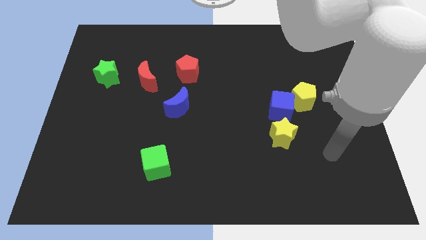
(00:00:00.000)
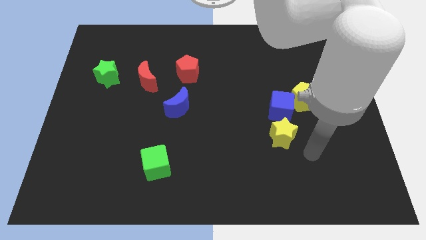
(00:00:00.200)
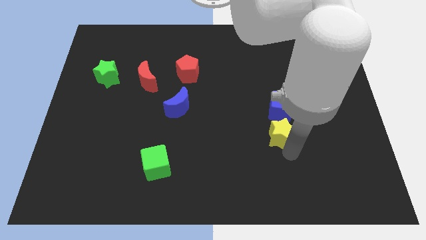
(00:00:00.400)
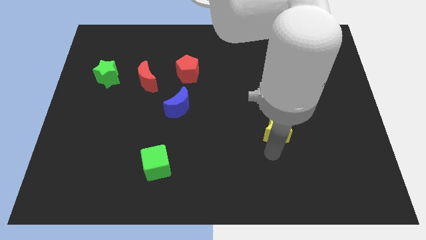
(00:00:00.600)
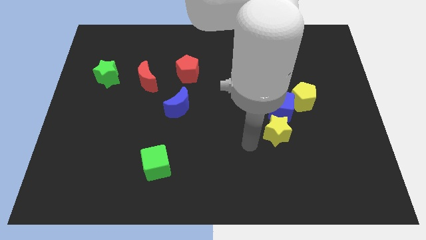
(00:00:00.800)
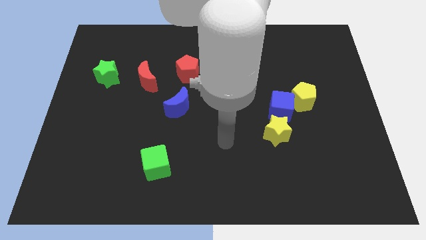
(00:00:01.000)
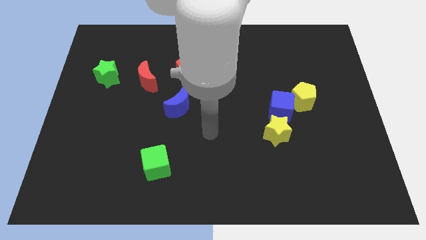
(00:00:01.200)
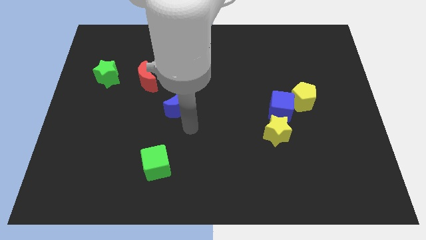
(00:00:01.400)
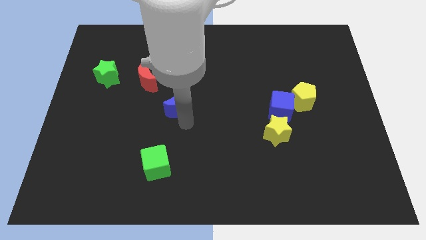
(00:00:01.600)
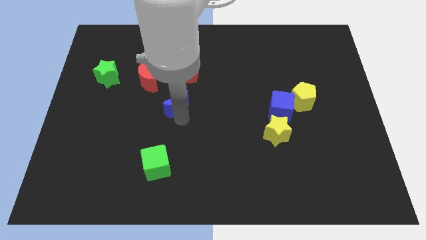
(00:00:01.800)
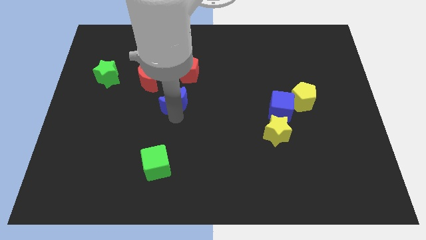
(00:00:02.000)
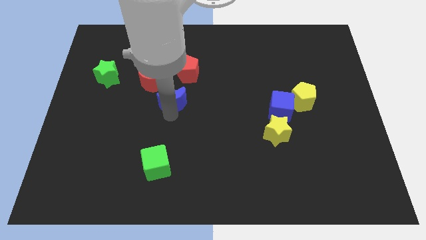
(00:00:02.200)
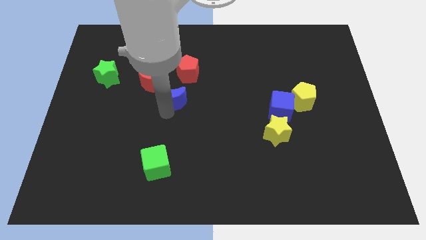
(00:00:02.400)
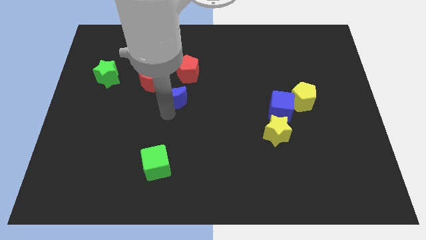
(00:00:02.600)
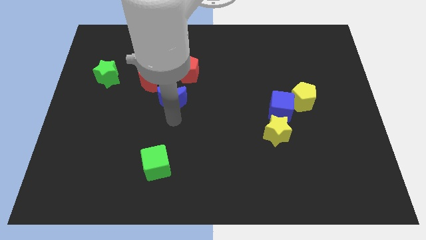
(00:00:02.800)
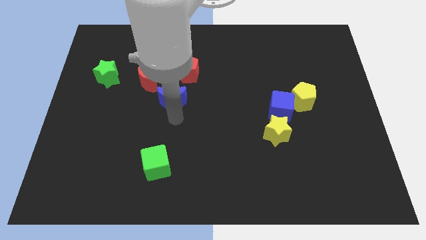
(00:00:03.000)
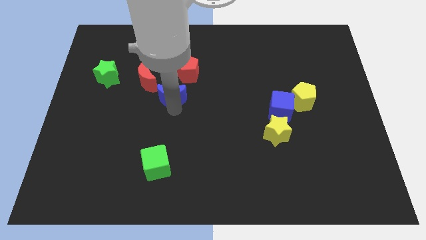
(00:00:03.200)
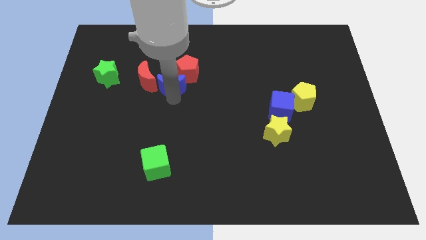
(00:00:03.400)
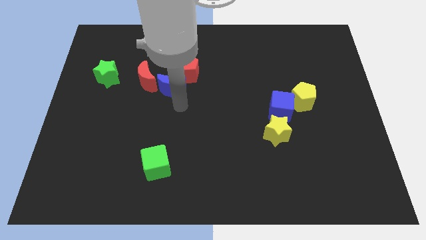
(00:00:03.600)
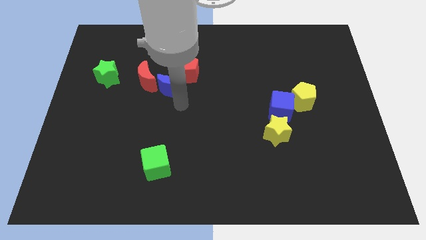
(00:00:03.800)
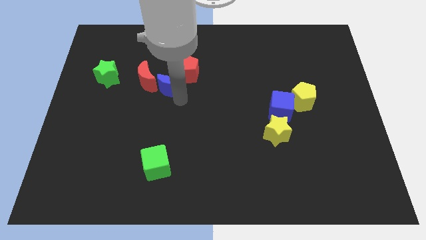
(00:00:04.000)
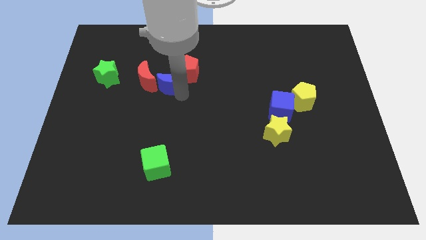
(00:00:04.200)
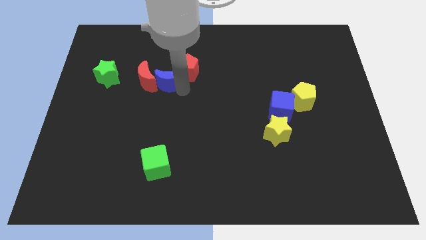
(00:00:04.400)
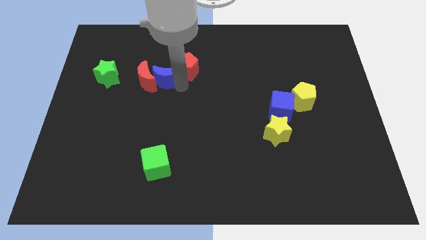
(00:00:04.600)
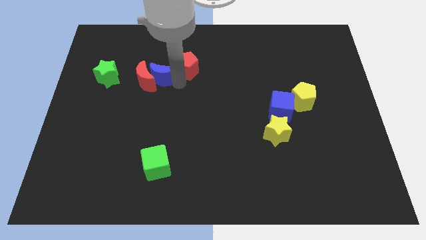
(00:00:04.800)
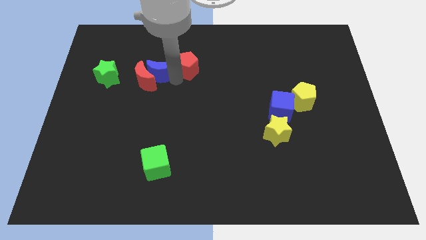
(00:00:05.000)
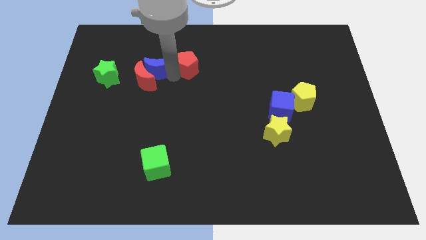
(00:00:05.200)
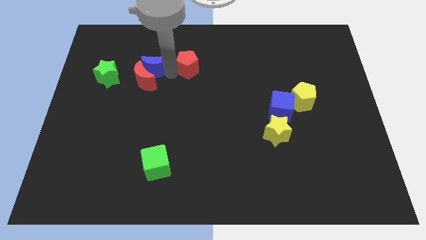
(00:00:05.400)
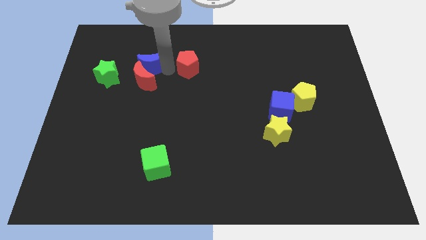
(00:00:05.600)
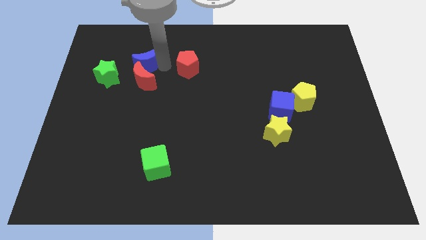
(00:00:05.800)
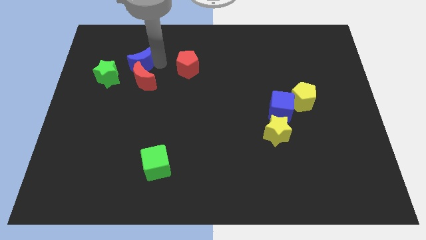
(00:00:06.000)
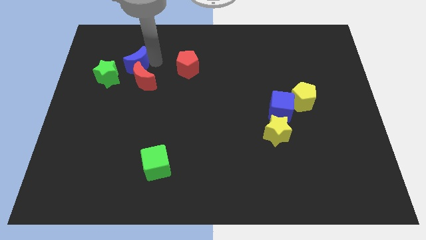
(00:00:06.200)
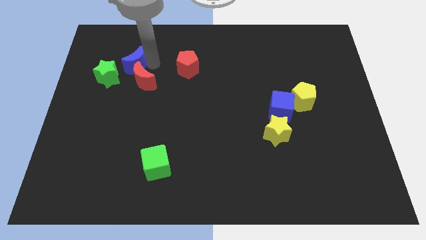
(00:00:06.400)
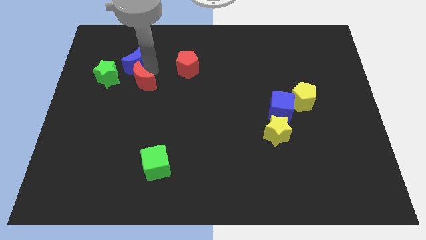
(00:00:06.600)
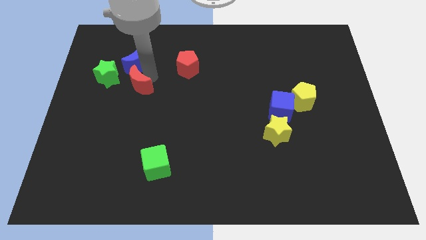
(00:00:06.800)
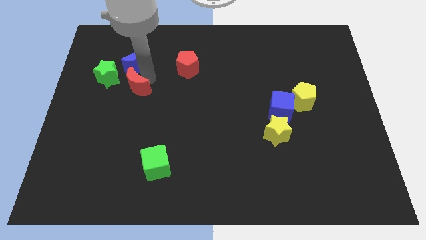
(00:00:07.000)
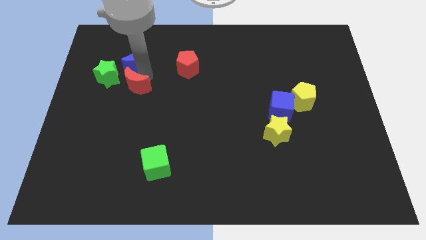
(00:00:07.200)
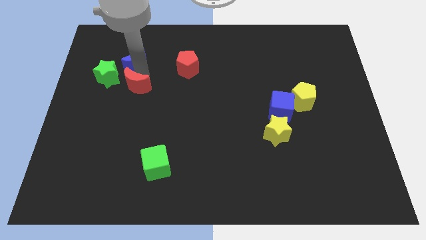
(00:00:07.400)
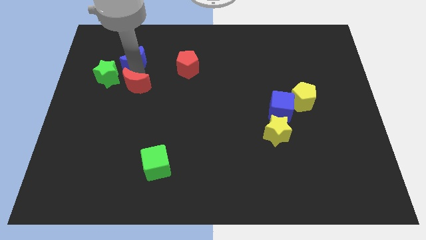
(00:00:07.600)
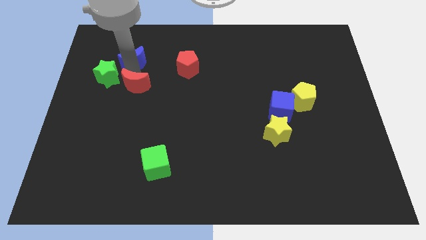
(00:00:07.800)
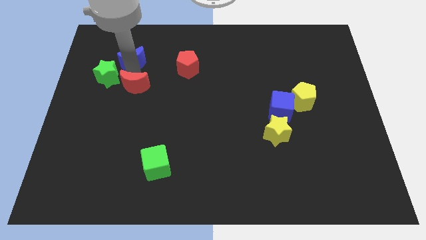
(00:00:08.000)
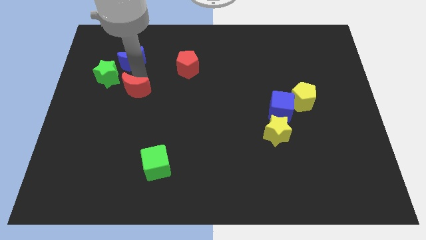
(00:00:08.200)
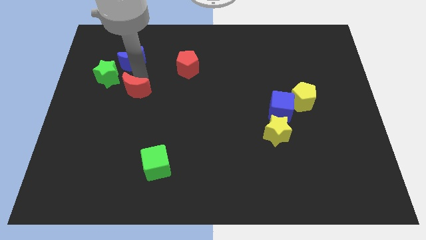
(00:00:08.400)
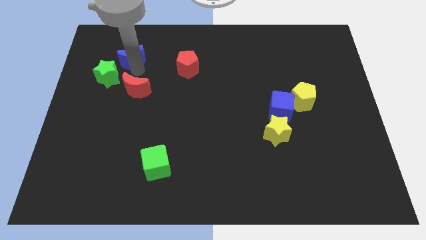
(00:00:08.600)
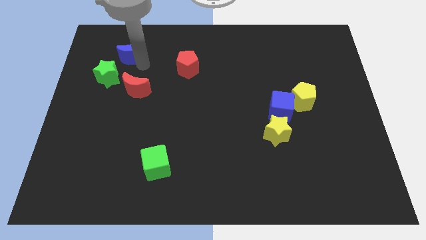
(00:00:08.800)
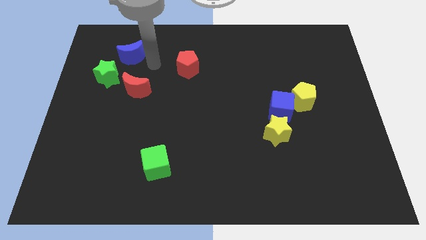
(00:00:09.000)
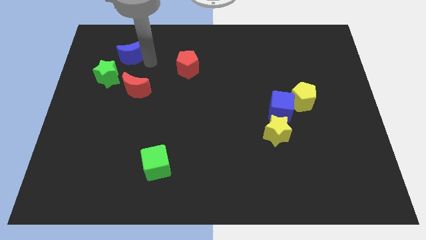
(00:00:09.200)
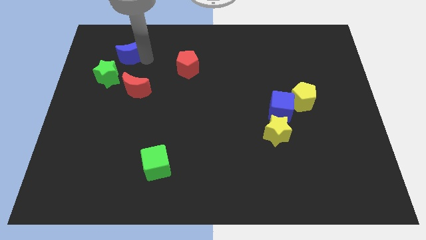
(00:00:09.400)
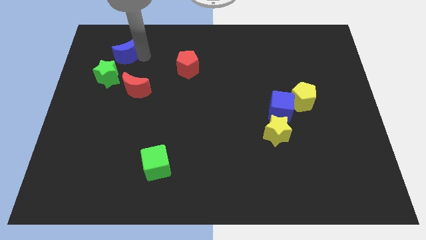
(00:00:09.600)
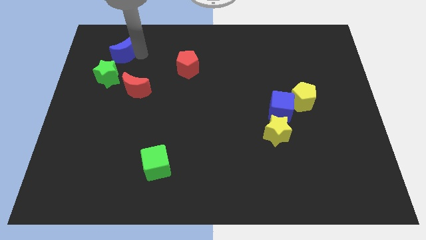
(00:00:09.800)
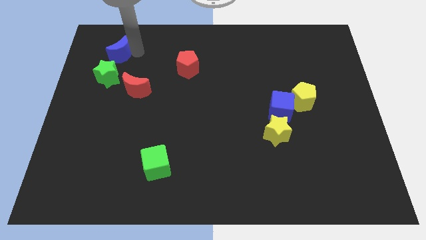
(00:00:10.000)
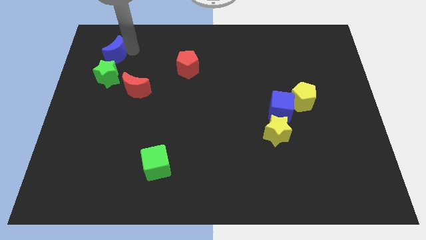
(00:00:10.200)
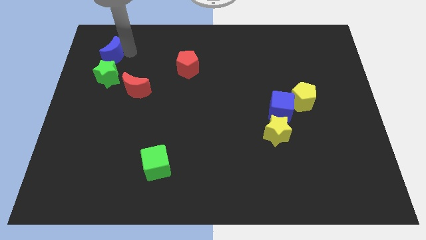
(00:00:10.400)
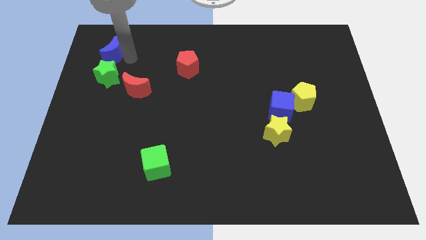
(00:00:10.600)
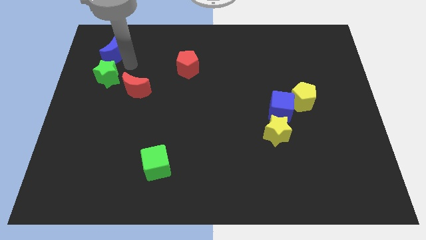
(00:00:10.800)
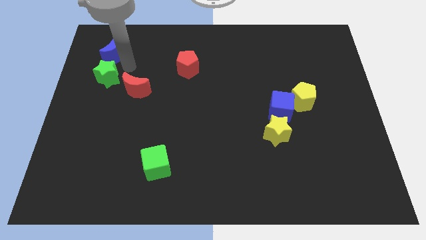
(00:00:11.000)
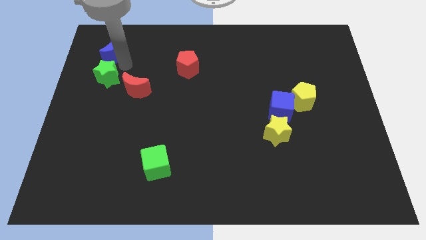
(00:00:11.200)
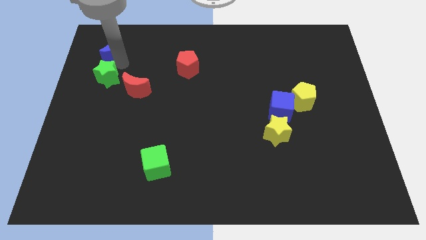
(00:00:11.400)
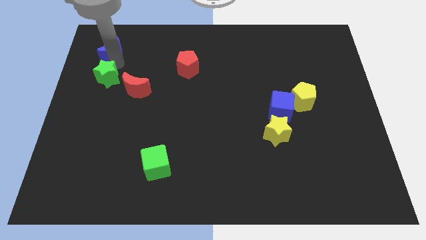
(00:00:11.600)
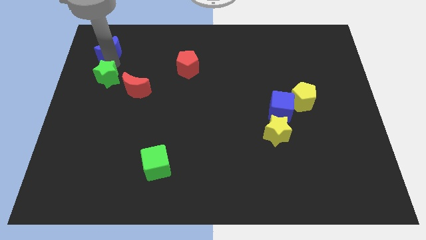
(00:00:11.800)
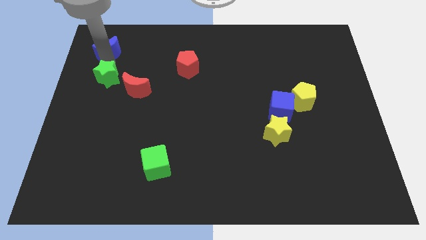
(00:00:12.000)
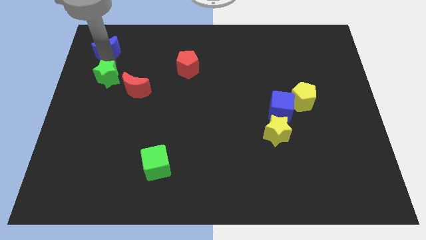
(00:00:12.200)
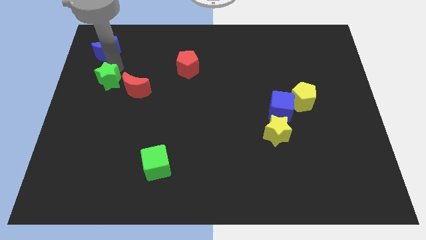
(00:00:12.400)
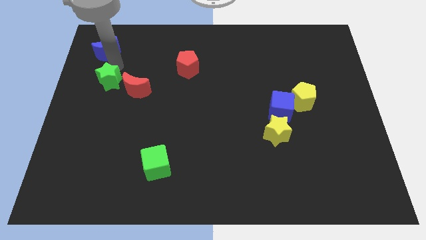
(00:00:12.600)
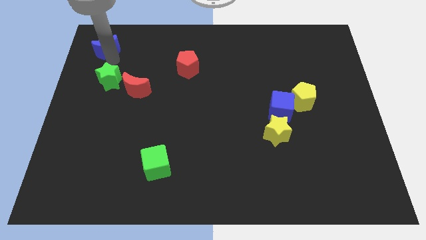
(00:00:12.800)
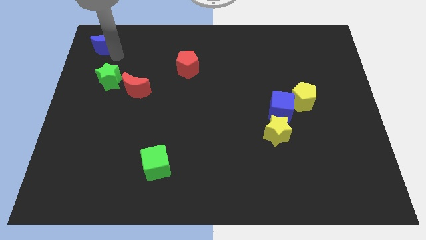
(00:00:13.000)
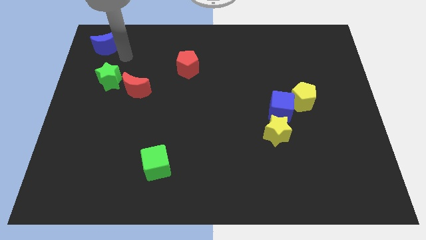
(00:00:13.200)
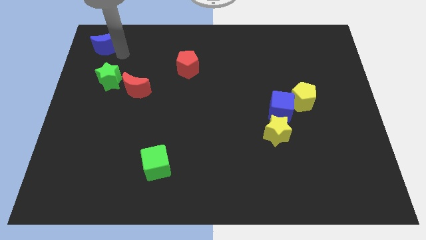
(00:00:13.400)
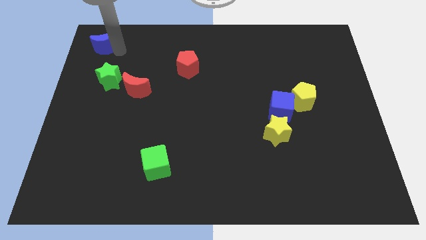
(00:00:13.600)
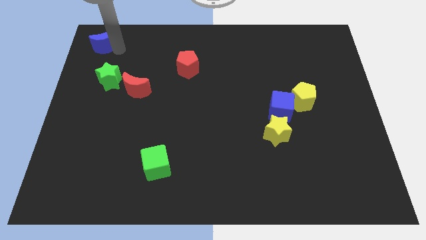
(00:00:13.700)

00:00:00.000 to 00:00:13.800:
move the blue moon to the top left of the board

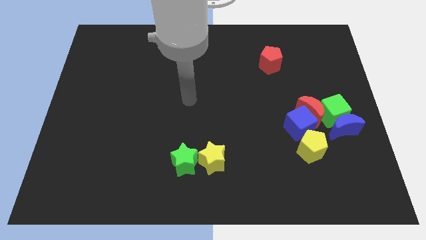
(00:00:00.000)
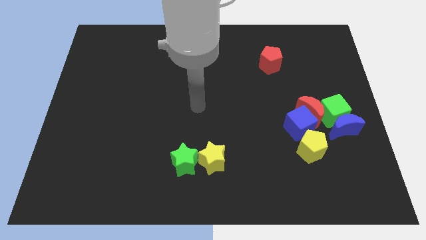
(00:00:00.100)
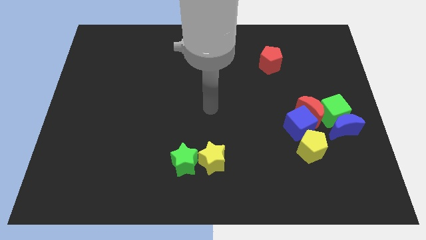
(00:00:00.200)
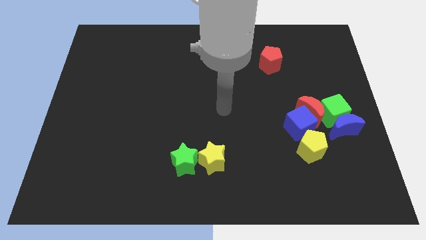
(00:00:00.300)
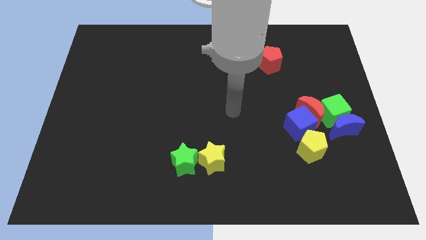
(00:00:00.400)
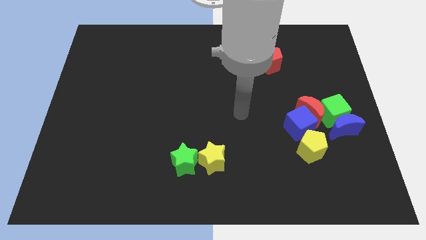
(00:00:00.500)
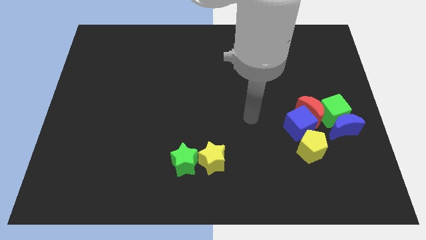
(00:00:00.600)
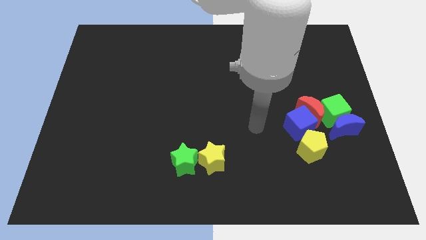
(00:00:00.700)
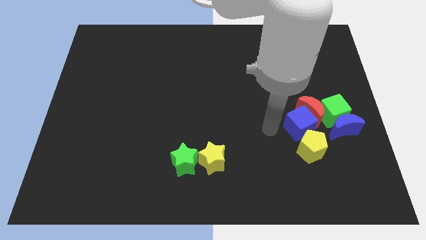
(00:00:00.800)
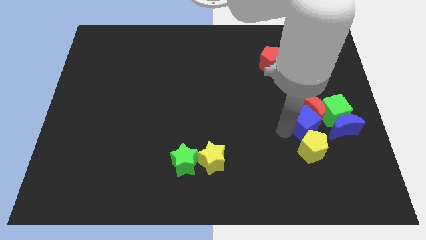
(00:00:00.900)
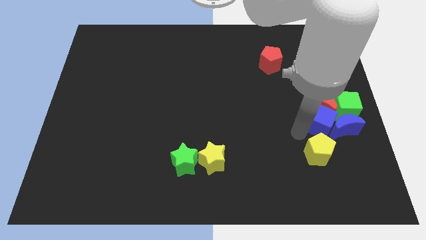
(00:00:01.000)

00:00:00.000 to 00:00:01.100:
slide the red moon to the center right
